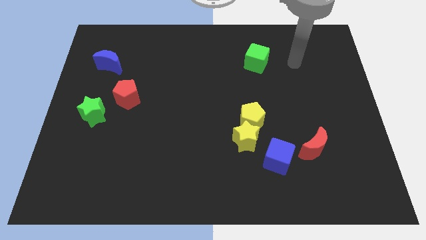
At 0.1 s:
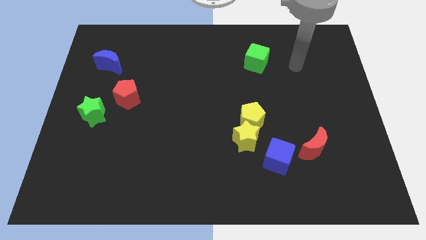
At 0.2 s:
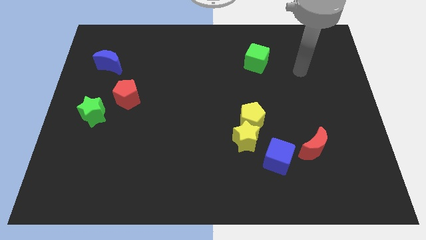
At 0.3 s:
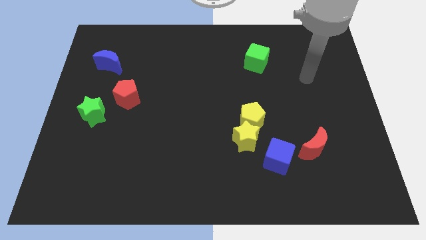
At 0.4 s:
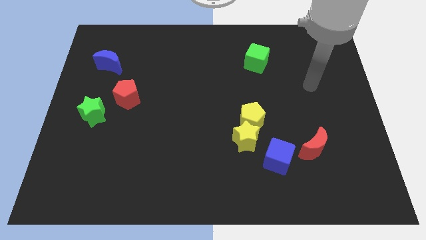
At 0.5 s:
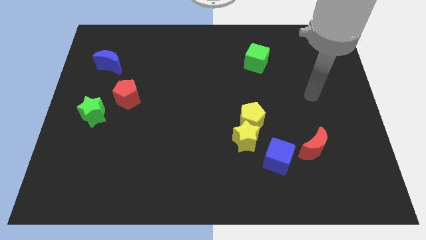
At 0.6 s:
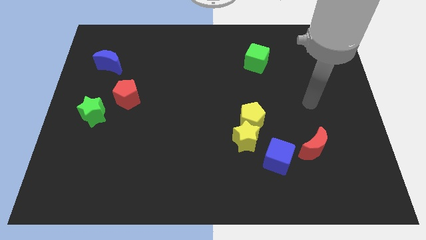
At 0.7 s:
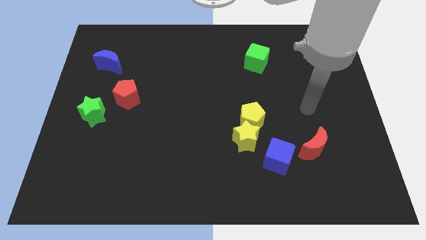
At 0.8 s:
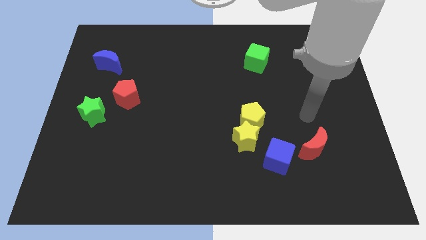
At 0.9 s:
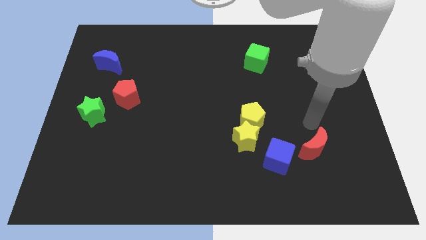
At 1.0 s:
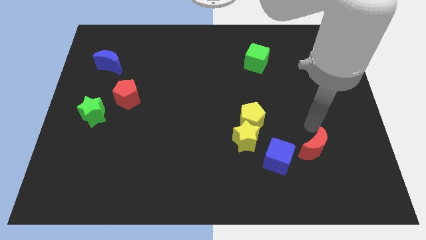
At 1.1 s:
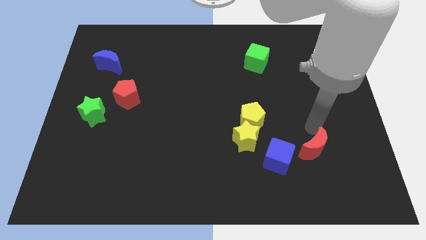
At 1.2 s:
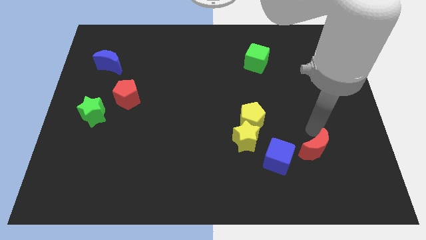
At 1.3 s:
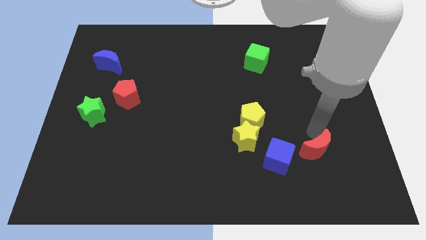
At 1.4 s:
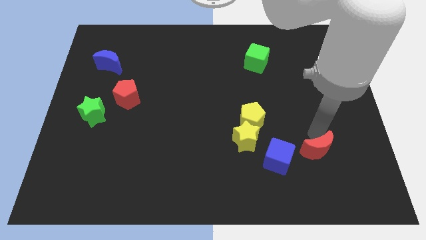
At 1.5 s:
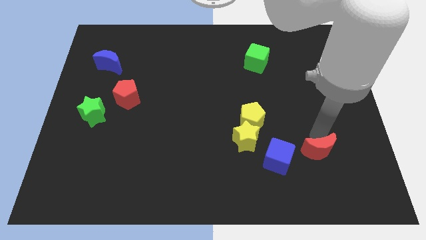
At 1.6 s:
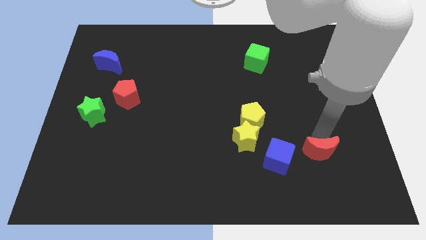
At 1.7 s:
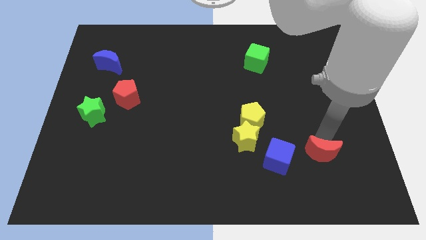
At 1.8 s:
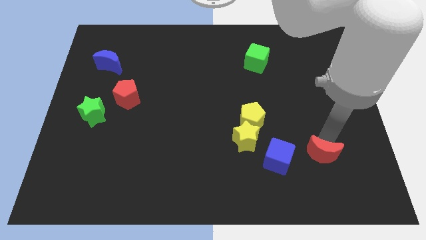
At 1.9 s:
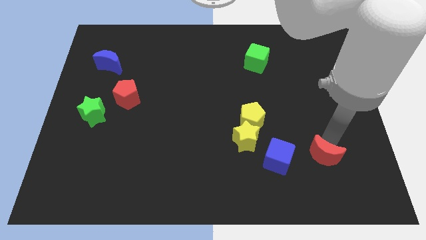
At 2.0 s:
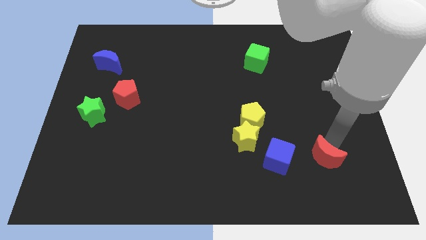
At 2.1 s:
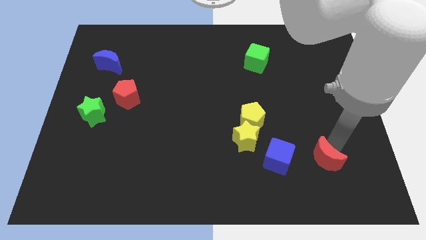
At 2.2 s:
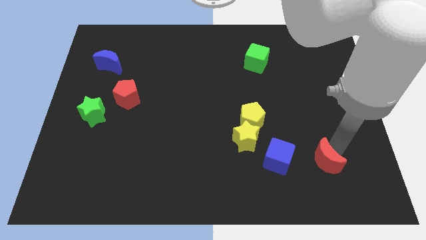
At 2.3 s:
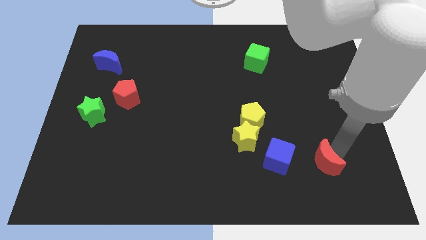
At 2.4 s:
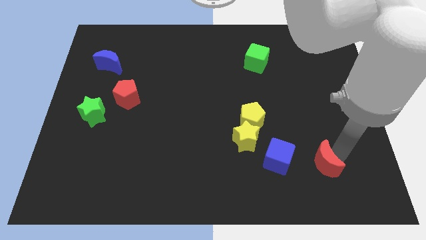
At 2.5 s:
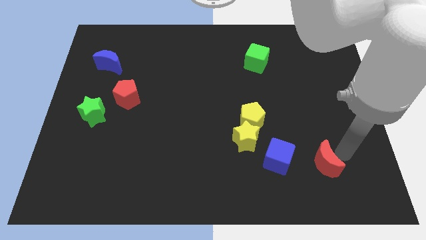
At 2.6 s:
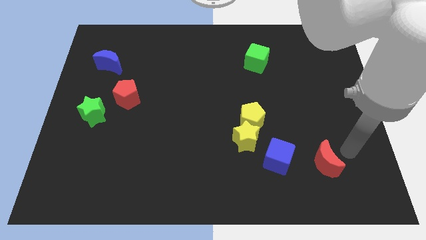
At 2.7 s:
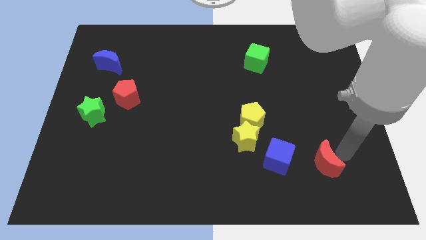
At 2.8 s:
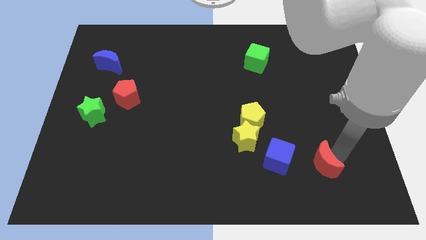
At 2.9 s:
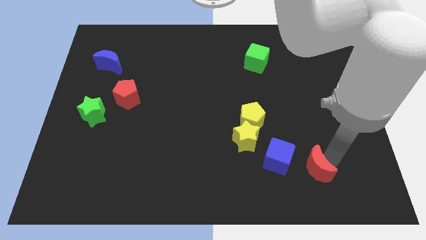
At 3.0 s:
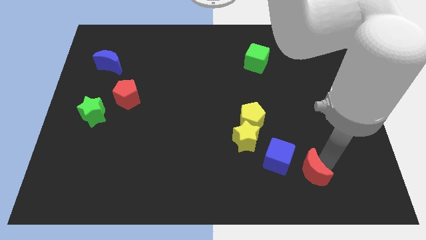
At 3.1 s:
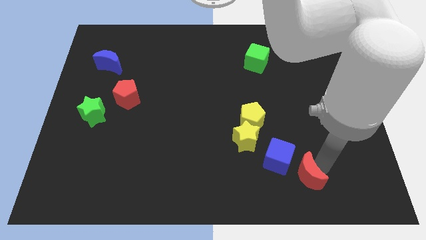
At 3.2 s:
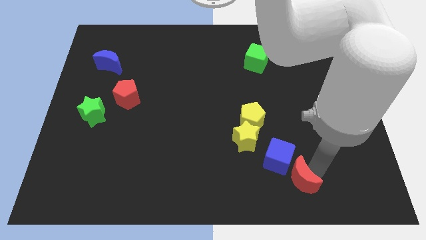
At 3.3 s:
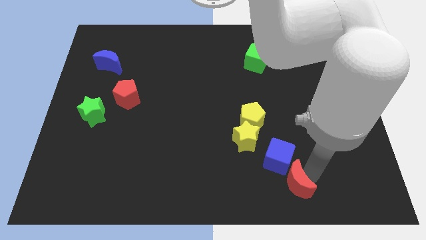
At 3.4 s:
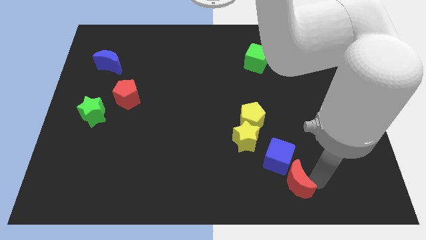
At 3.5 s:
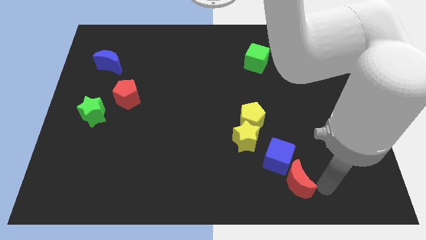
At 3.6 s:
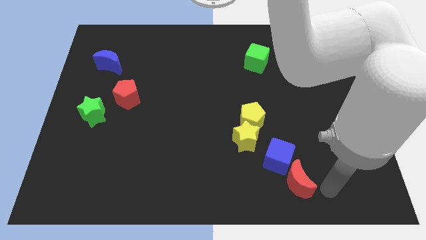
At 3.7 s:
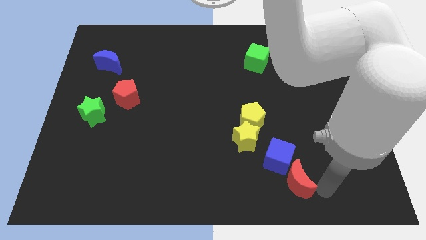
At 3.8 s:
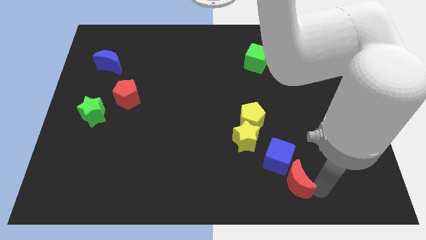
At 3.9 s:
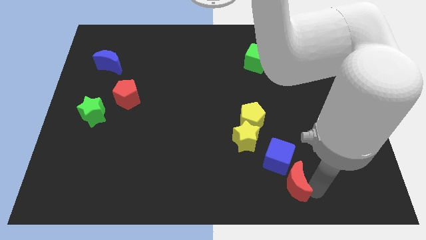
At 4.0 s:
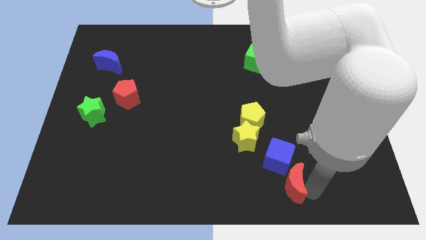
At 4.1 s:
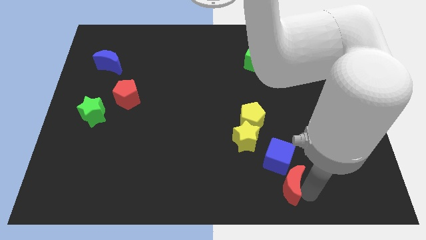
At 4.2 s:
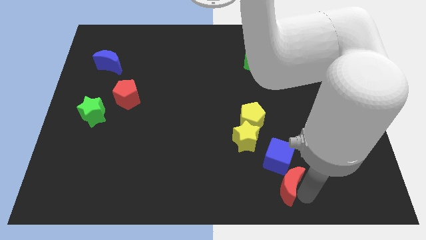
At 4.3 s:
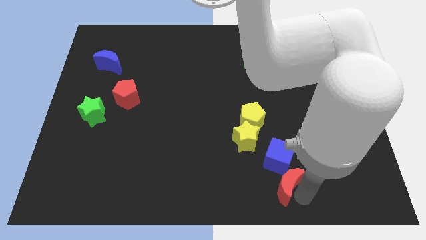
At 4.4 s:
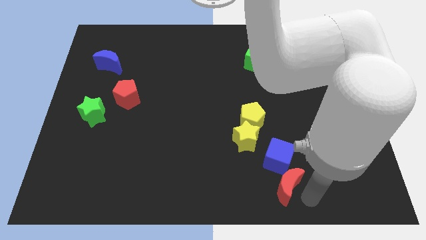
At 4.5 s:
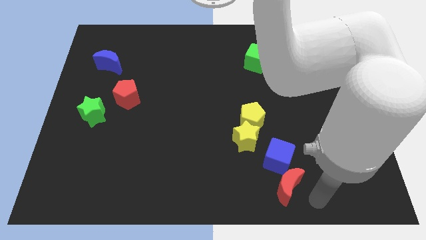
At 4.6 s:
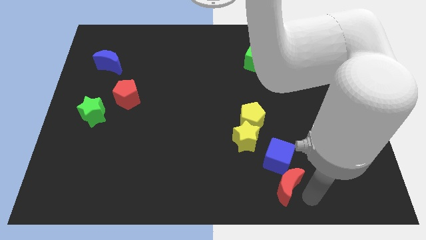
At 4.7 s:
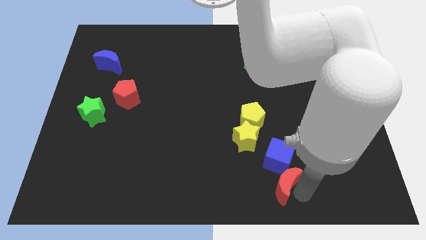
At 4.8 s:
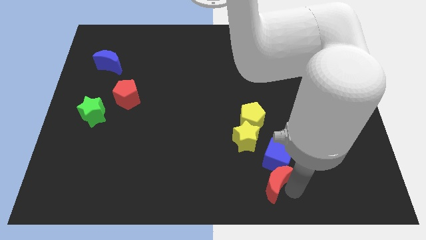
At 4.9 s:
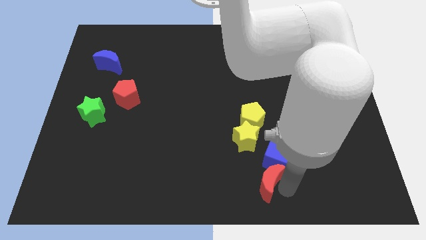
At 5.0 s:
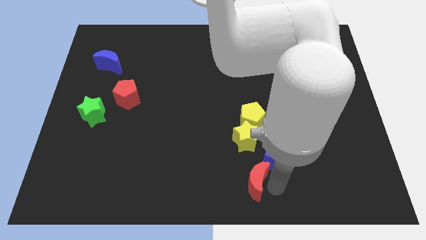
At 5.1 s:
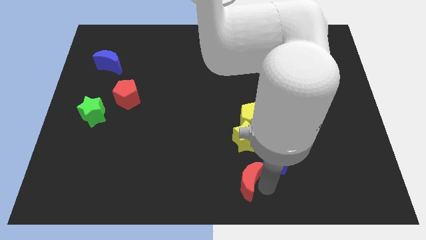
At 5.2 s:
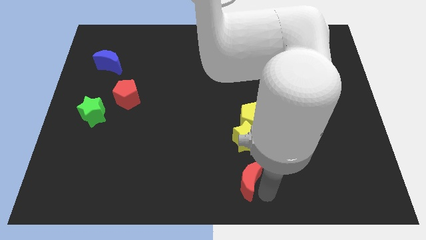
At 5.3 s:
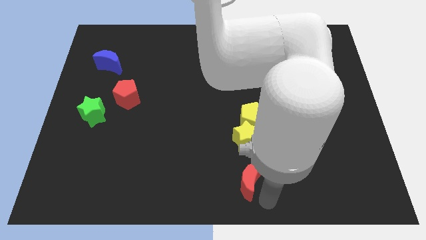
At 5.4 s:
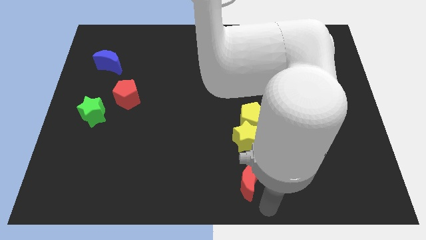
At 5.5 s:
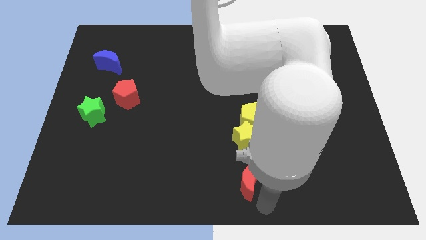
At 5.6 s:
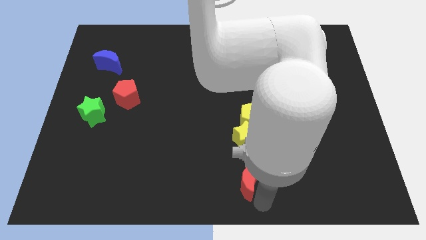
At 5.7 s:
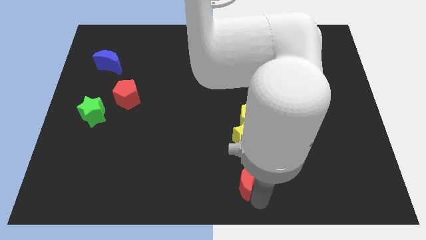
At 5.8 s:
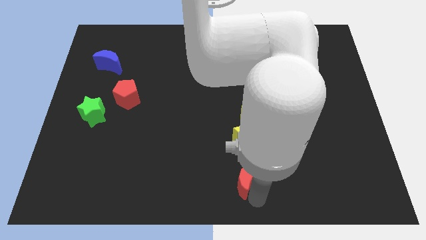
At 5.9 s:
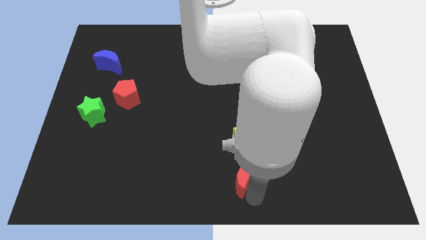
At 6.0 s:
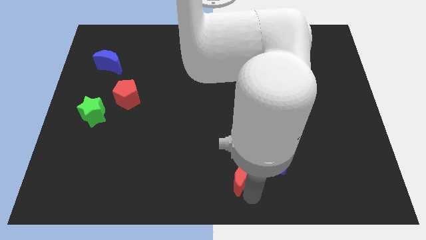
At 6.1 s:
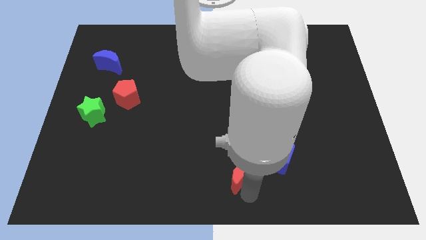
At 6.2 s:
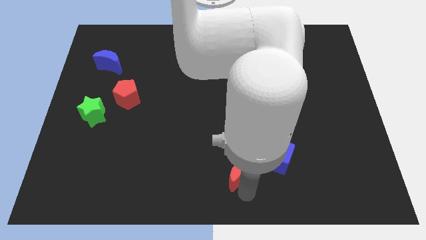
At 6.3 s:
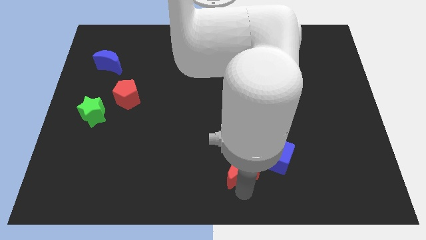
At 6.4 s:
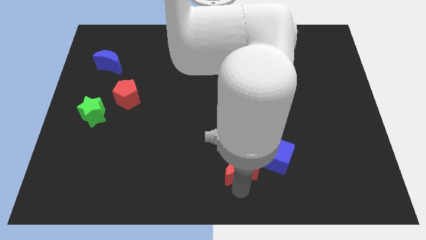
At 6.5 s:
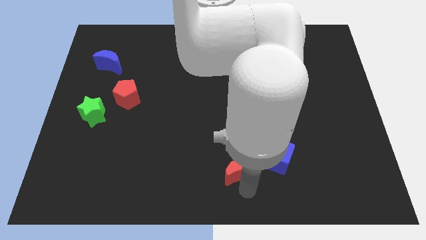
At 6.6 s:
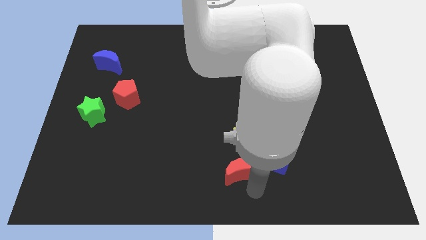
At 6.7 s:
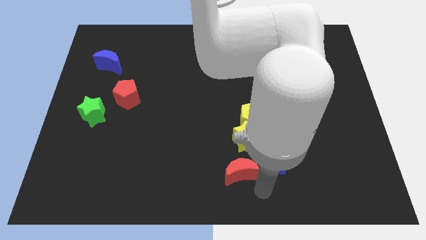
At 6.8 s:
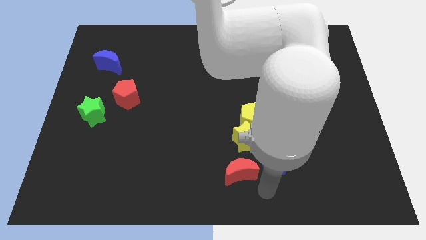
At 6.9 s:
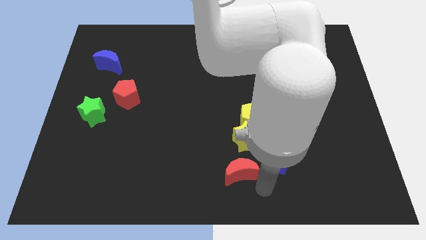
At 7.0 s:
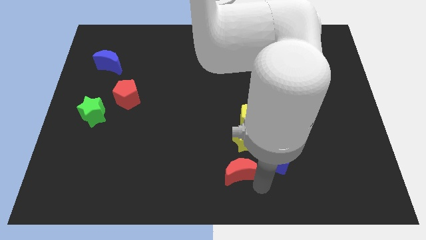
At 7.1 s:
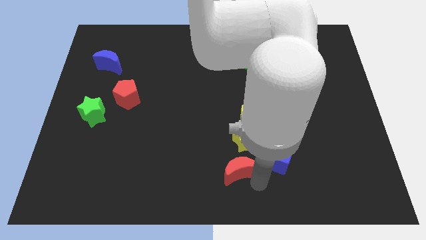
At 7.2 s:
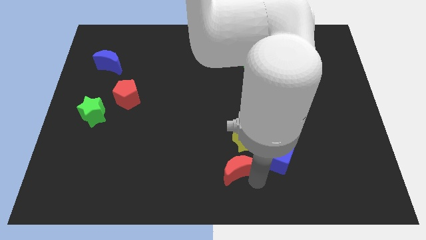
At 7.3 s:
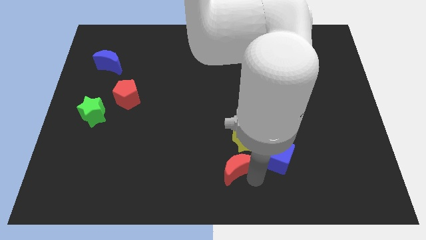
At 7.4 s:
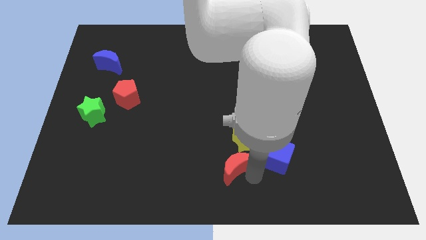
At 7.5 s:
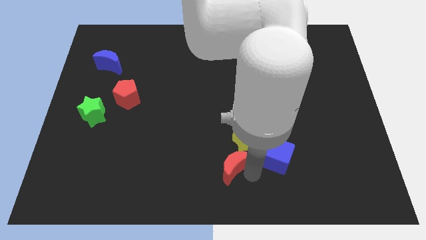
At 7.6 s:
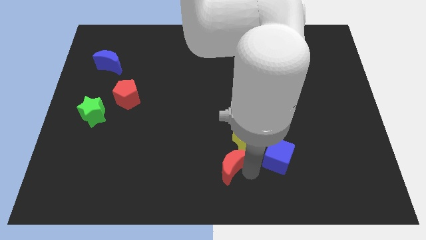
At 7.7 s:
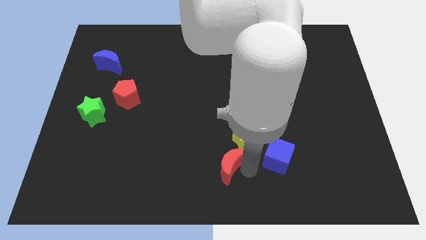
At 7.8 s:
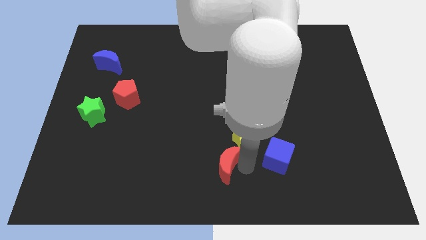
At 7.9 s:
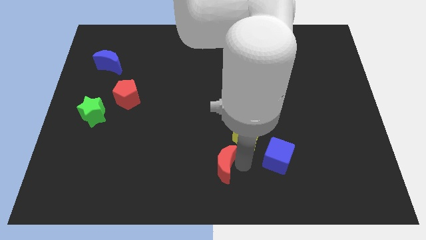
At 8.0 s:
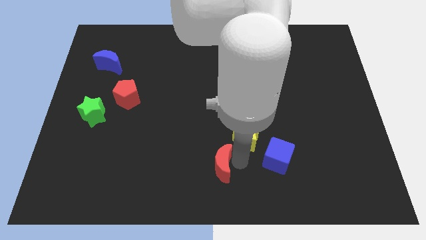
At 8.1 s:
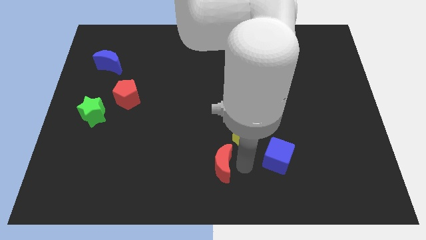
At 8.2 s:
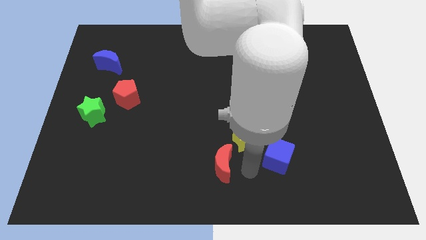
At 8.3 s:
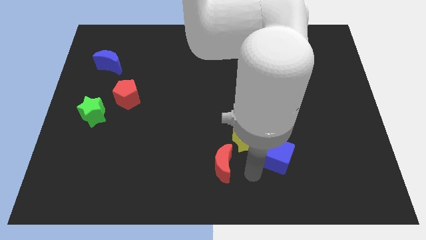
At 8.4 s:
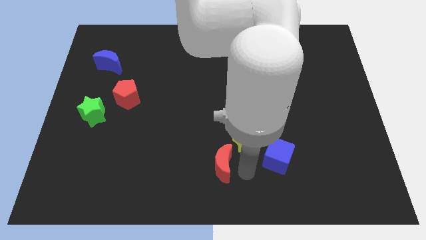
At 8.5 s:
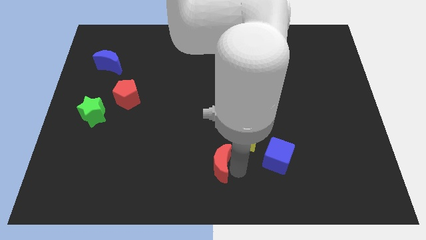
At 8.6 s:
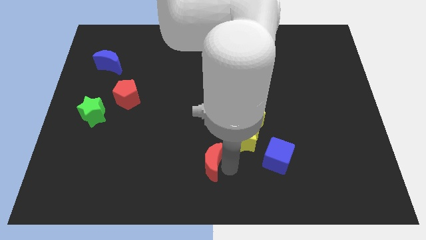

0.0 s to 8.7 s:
push the red moon to the left
